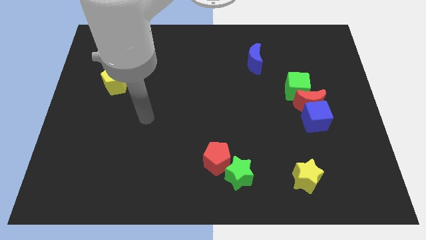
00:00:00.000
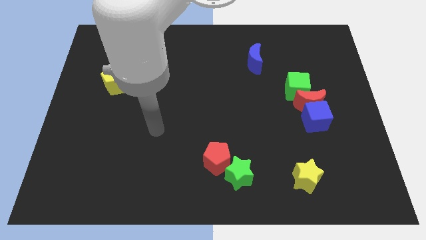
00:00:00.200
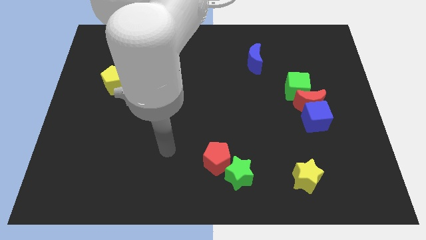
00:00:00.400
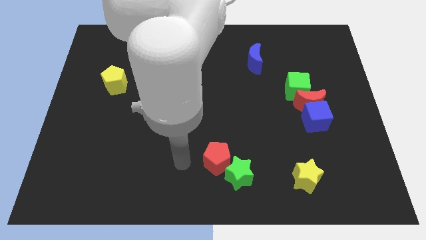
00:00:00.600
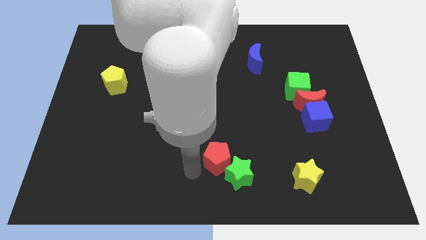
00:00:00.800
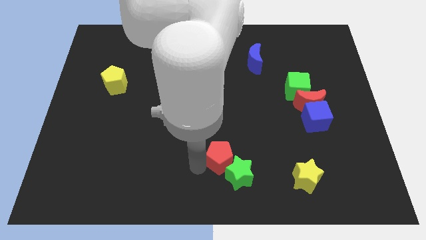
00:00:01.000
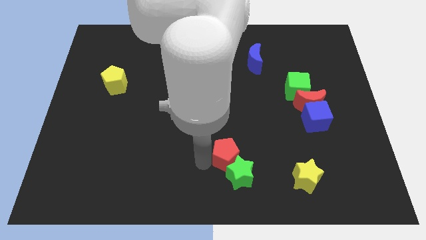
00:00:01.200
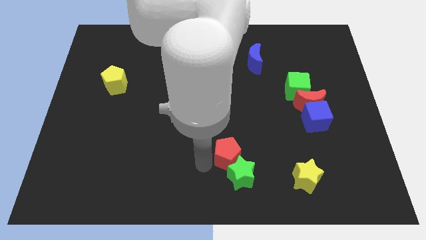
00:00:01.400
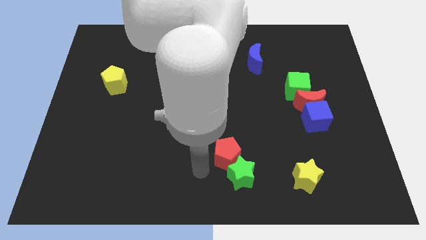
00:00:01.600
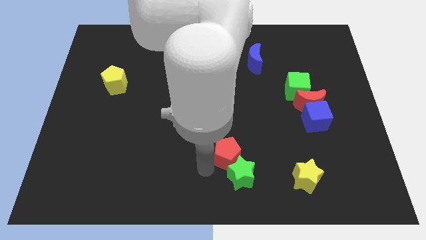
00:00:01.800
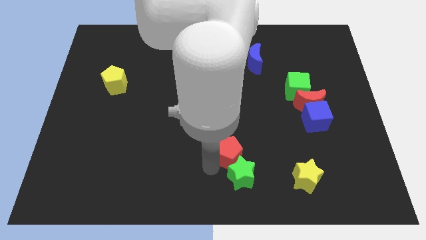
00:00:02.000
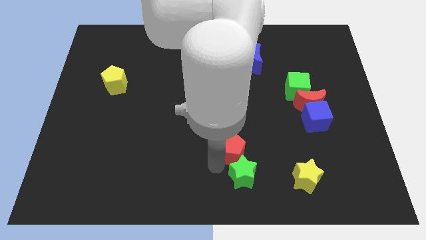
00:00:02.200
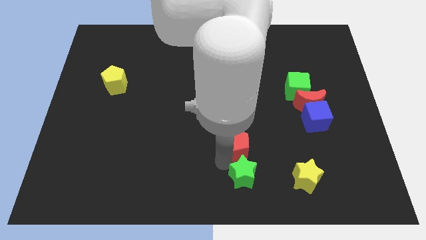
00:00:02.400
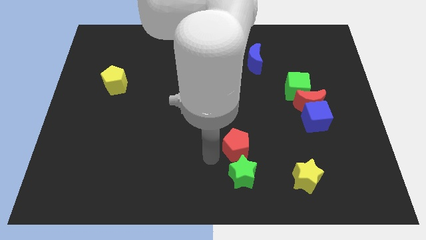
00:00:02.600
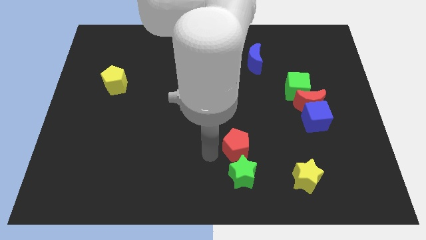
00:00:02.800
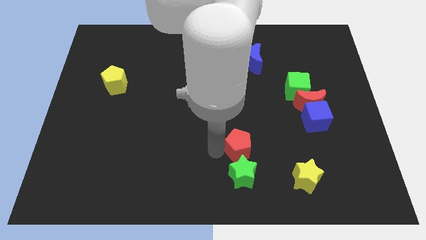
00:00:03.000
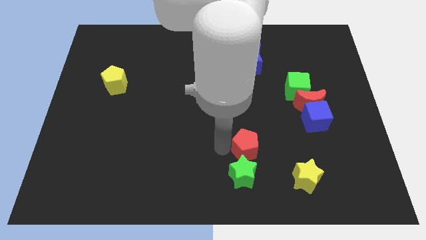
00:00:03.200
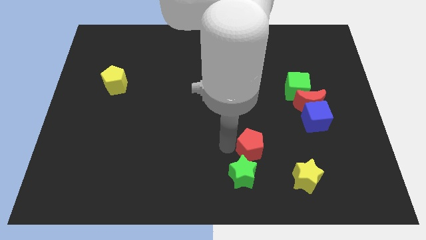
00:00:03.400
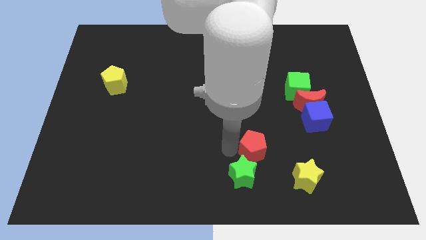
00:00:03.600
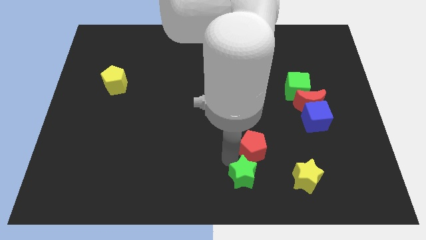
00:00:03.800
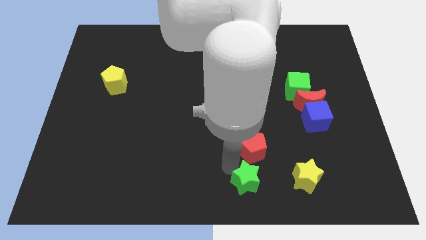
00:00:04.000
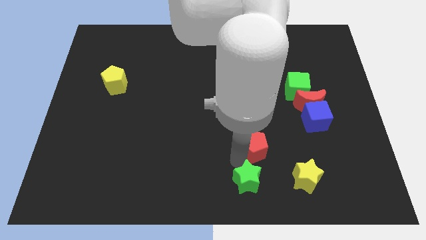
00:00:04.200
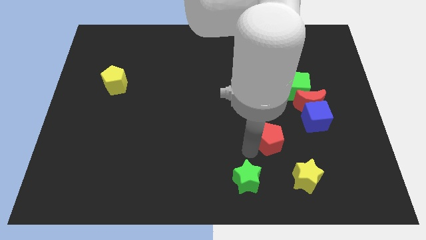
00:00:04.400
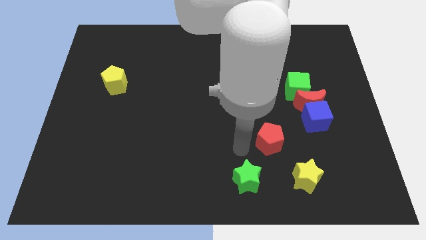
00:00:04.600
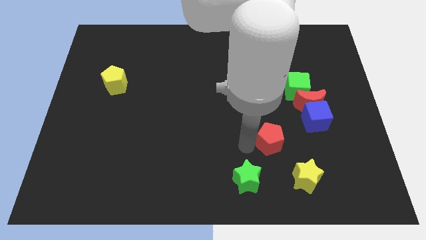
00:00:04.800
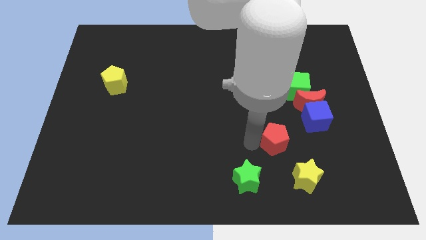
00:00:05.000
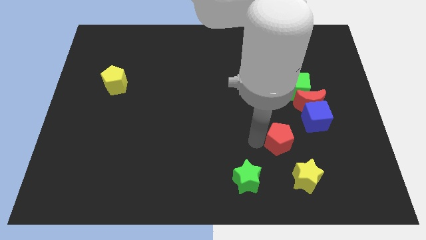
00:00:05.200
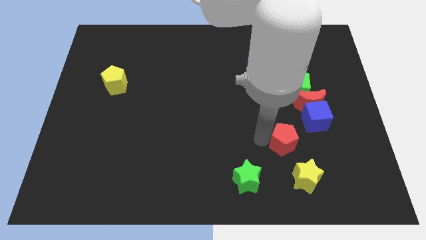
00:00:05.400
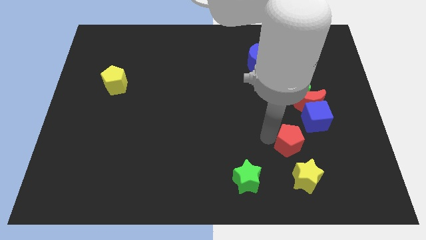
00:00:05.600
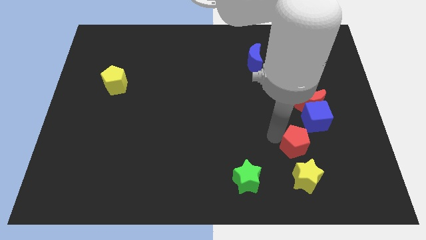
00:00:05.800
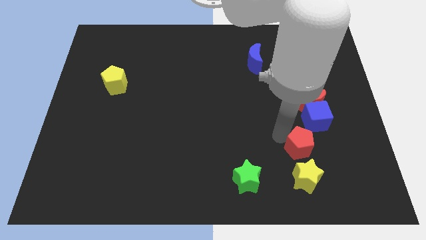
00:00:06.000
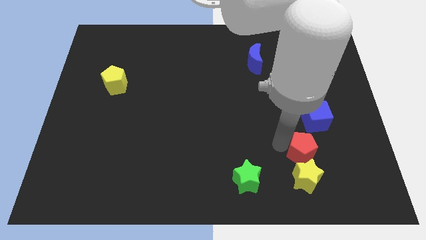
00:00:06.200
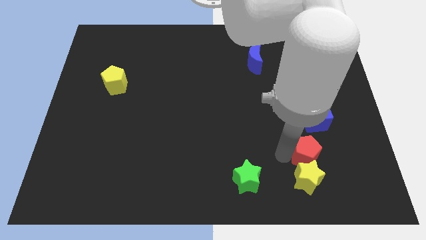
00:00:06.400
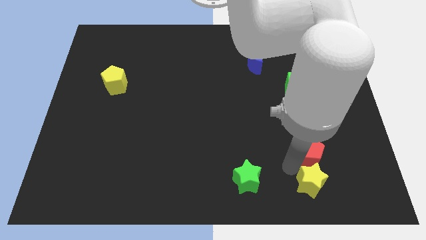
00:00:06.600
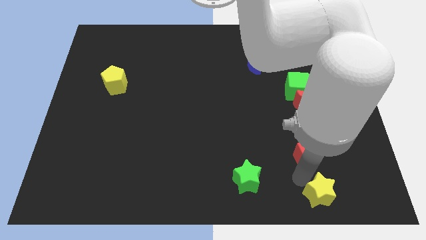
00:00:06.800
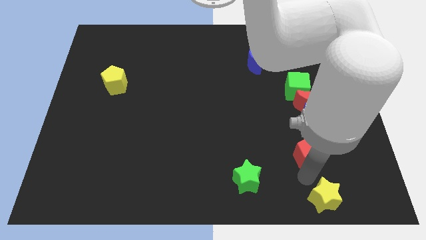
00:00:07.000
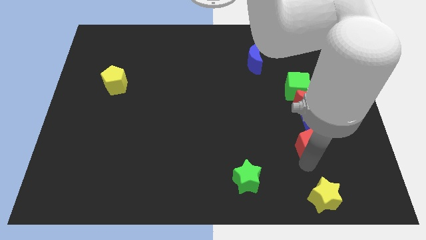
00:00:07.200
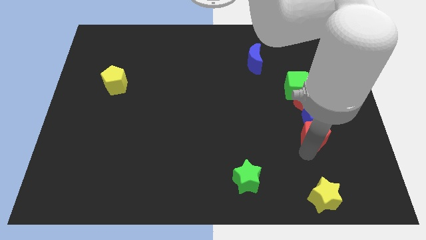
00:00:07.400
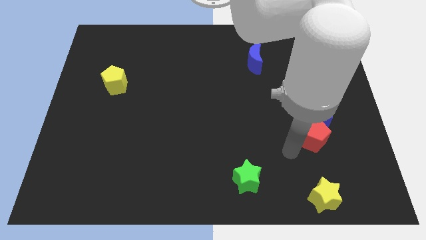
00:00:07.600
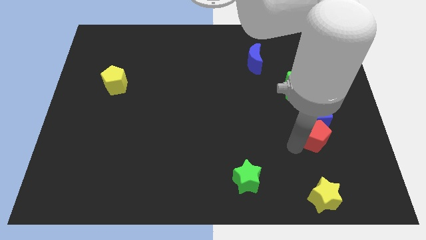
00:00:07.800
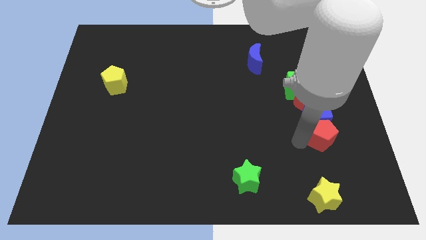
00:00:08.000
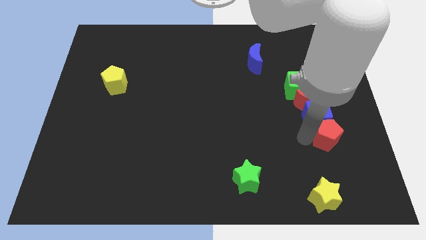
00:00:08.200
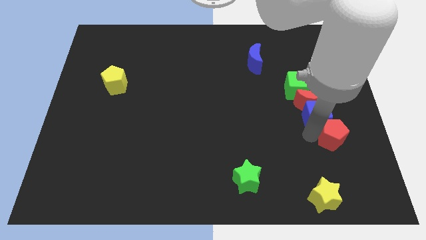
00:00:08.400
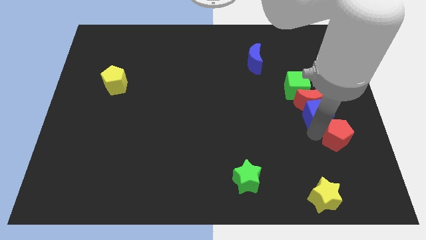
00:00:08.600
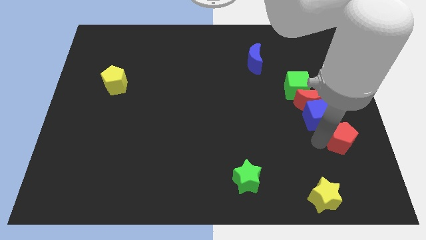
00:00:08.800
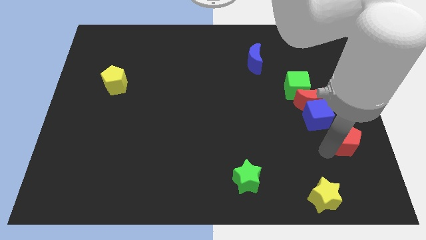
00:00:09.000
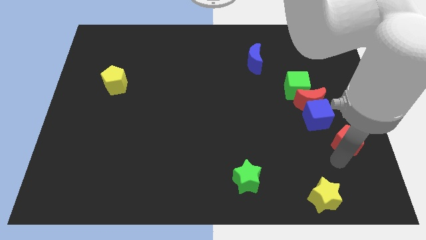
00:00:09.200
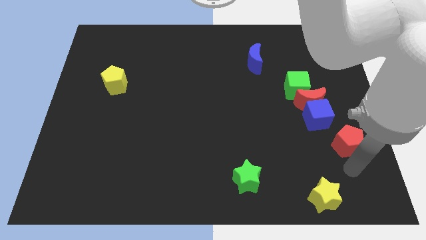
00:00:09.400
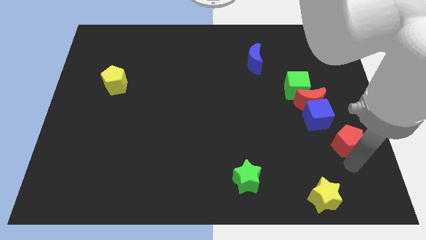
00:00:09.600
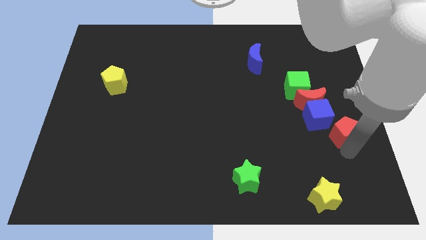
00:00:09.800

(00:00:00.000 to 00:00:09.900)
push the red pentagon to the center right

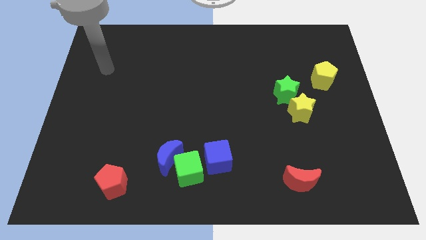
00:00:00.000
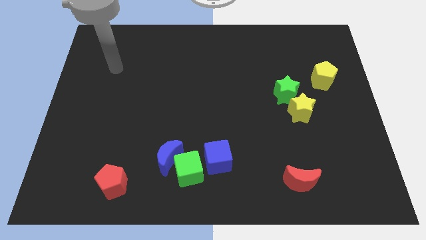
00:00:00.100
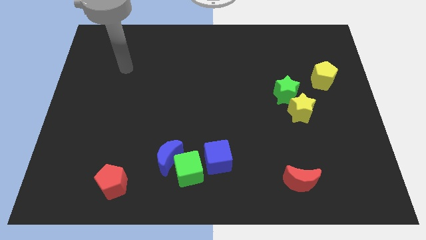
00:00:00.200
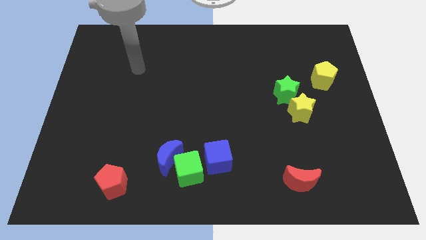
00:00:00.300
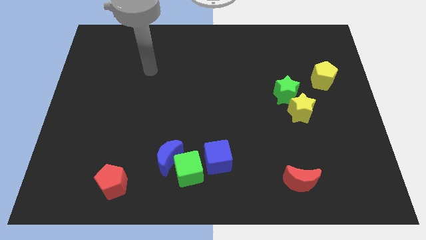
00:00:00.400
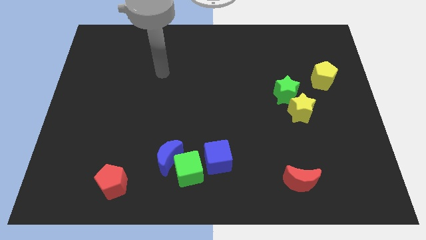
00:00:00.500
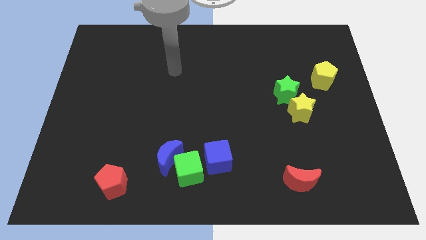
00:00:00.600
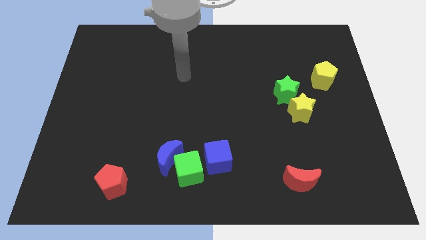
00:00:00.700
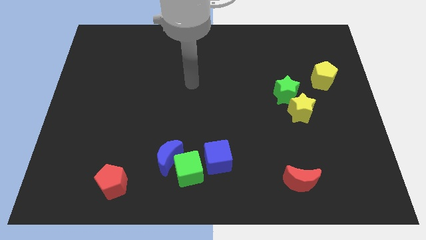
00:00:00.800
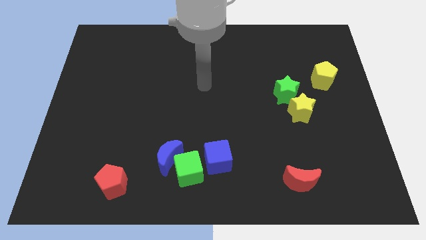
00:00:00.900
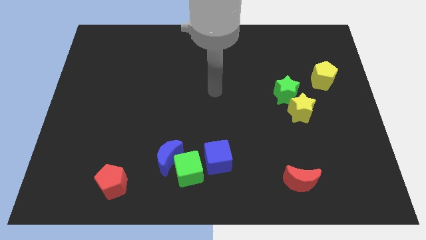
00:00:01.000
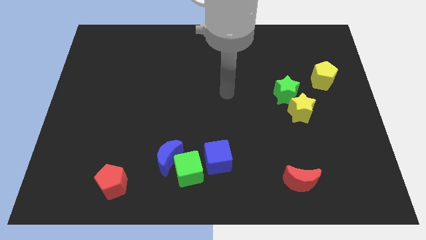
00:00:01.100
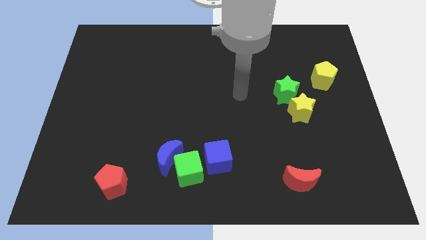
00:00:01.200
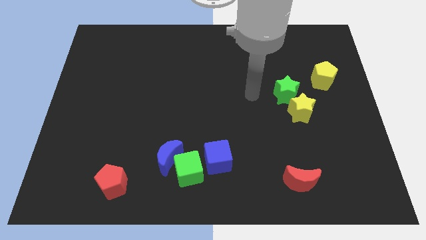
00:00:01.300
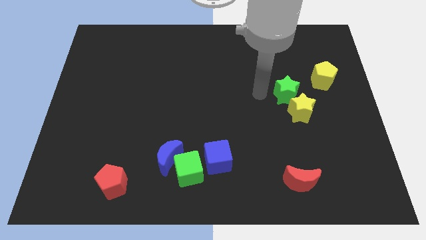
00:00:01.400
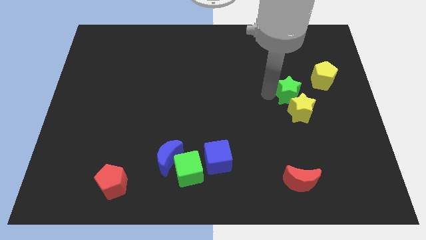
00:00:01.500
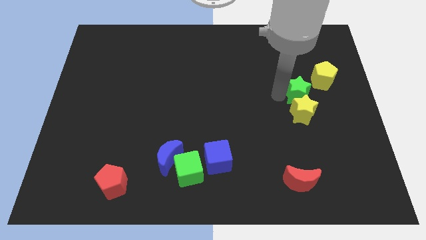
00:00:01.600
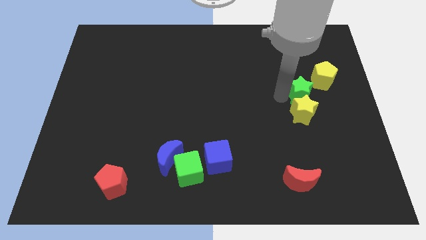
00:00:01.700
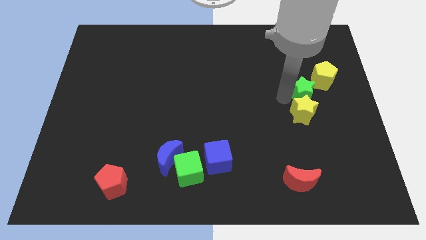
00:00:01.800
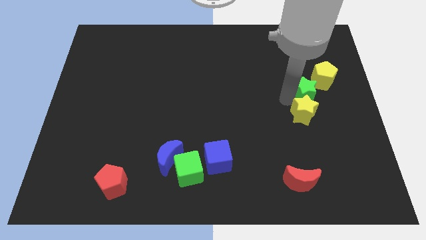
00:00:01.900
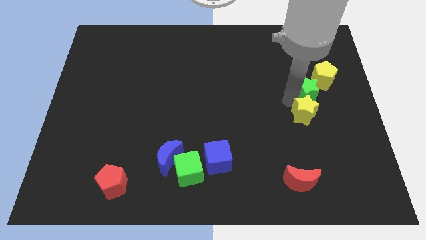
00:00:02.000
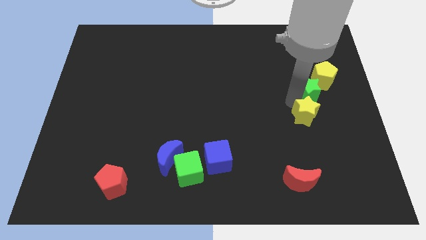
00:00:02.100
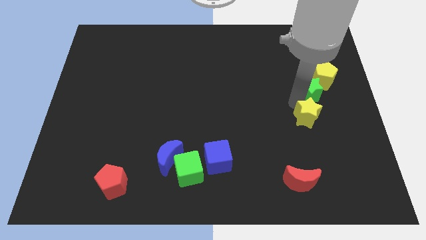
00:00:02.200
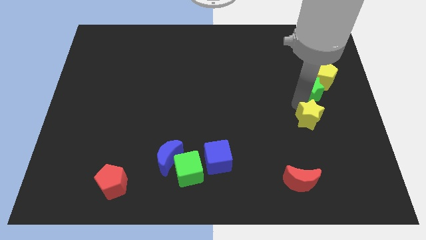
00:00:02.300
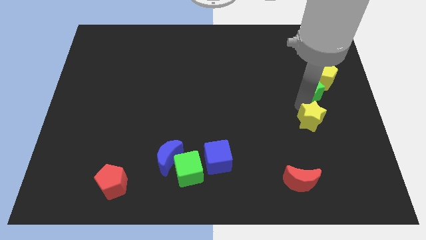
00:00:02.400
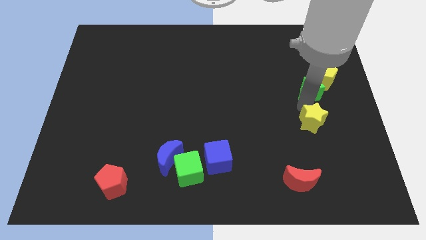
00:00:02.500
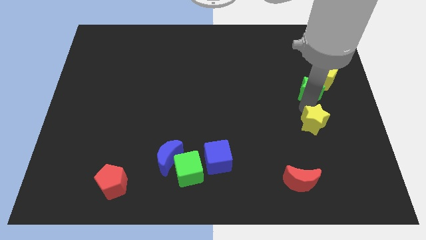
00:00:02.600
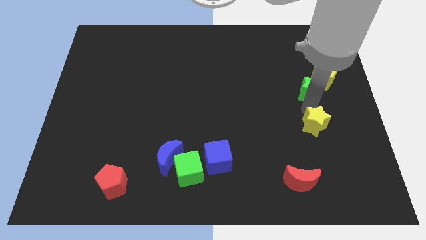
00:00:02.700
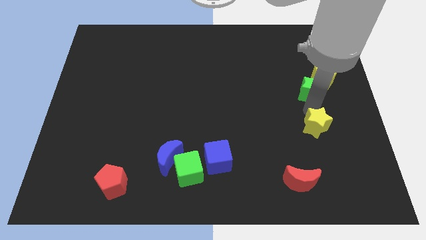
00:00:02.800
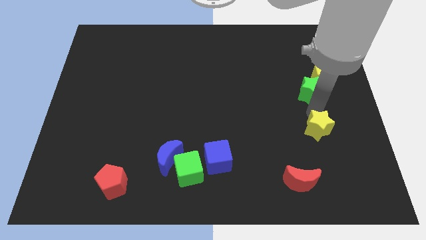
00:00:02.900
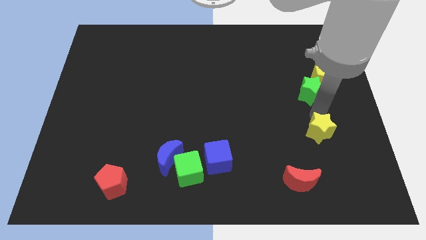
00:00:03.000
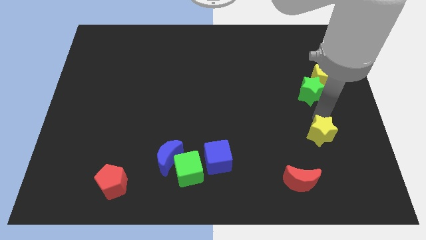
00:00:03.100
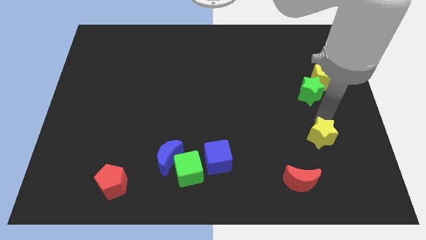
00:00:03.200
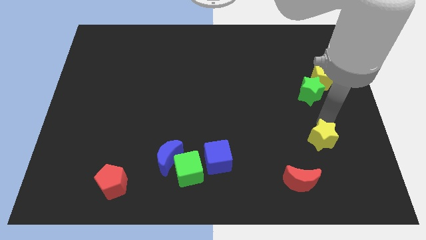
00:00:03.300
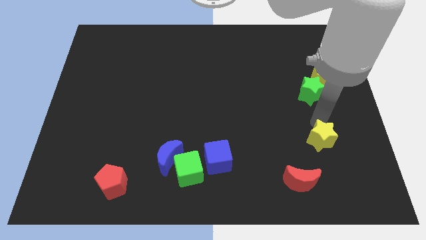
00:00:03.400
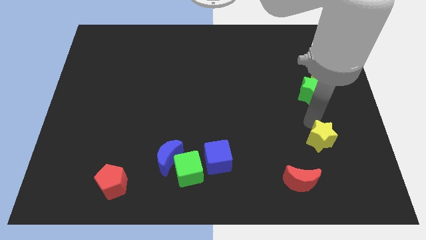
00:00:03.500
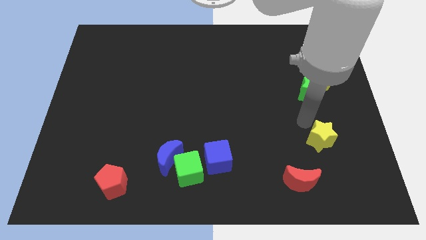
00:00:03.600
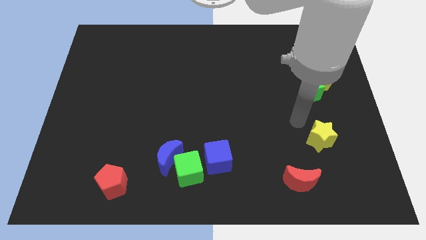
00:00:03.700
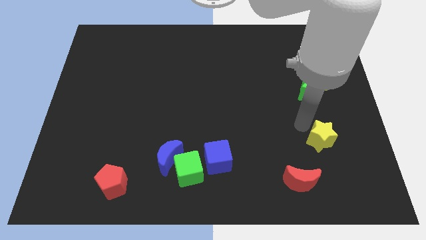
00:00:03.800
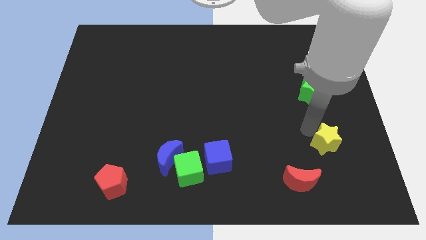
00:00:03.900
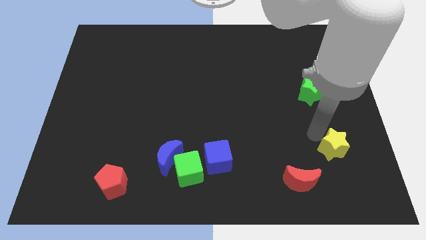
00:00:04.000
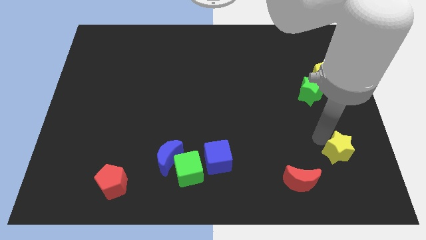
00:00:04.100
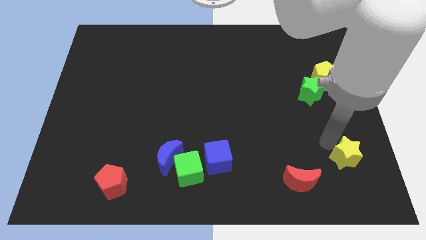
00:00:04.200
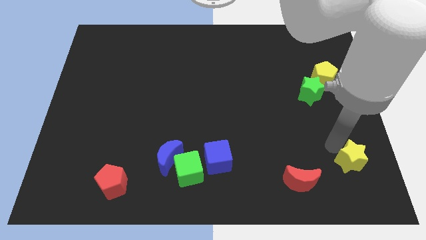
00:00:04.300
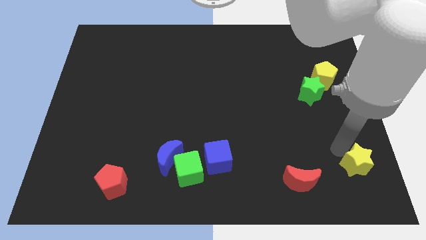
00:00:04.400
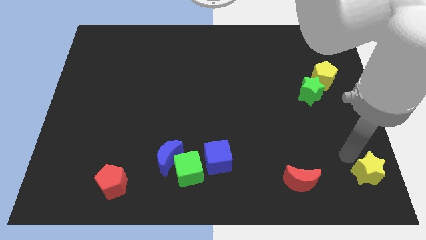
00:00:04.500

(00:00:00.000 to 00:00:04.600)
move the yellow star to the bottom right corner
